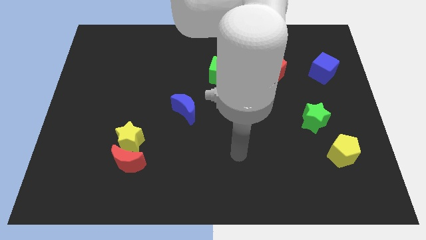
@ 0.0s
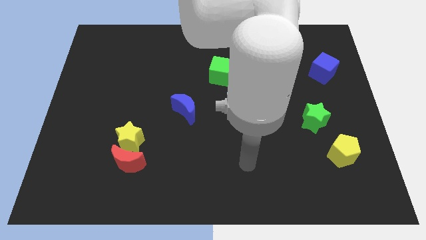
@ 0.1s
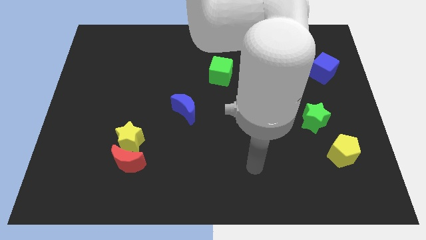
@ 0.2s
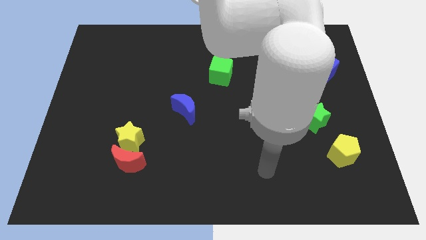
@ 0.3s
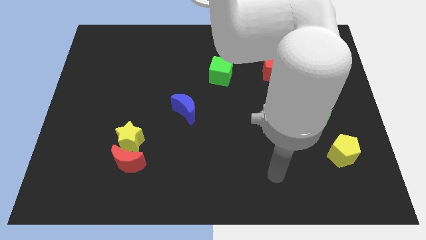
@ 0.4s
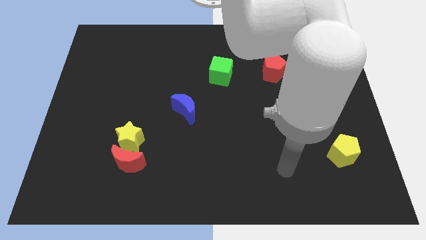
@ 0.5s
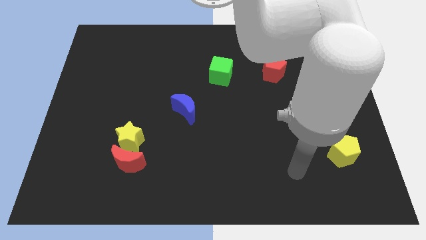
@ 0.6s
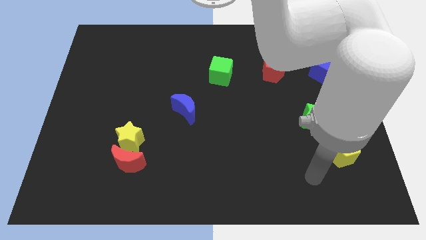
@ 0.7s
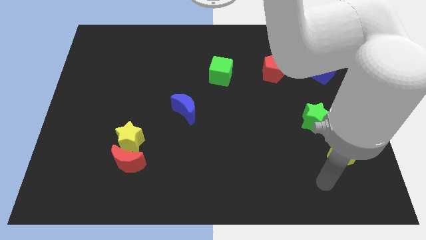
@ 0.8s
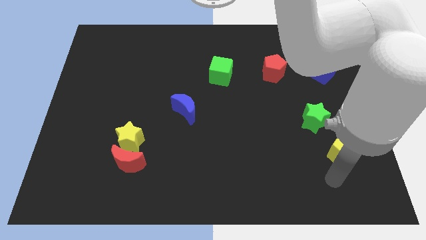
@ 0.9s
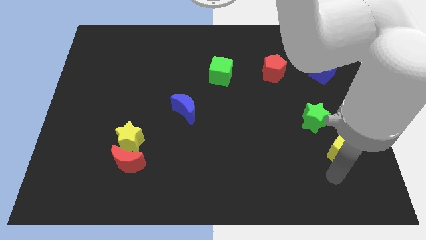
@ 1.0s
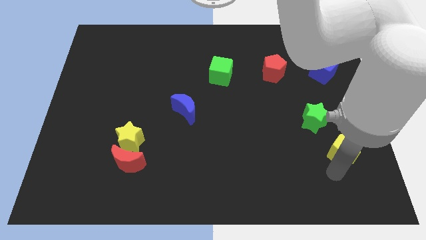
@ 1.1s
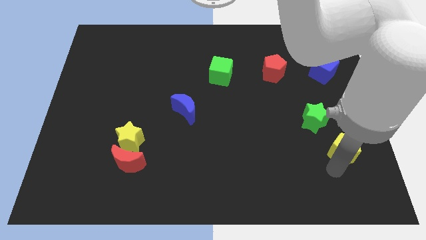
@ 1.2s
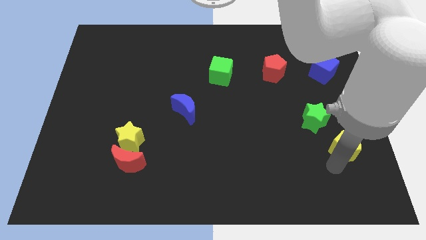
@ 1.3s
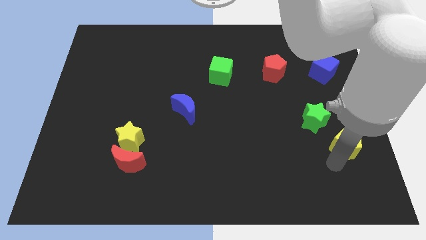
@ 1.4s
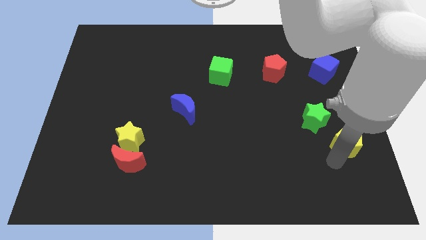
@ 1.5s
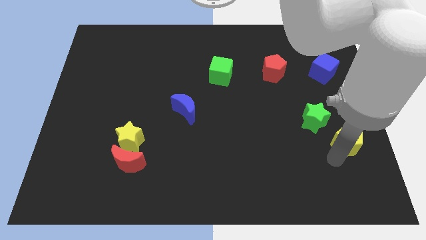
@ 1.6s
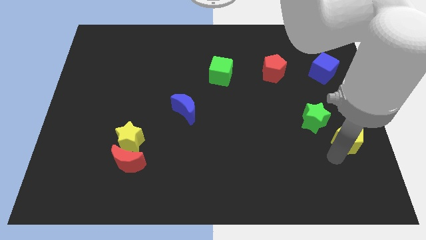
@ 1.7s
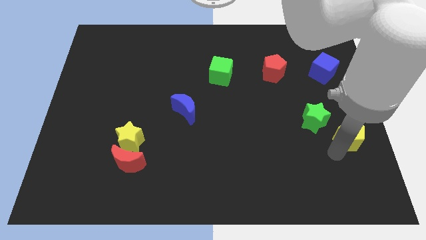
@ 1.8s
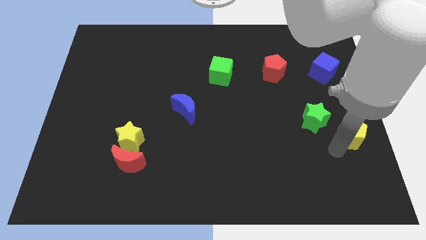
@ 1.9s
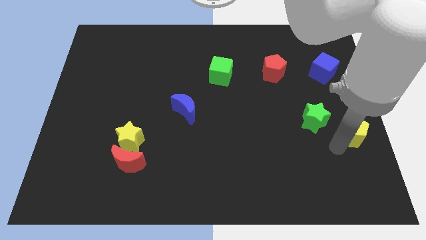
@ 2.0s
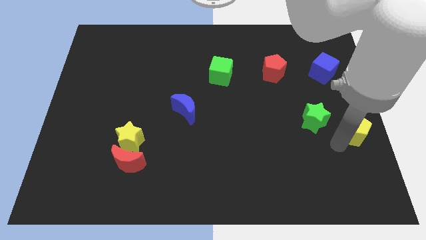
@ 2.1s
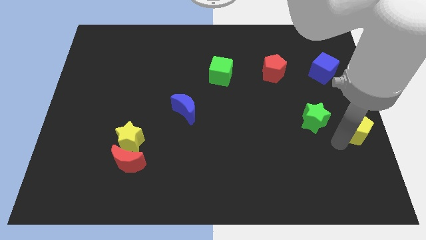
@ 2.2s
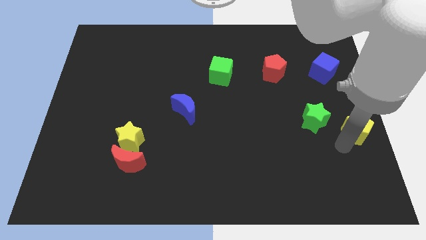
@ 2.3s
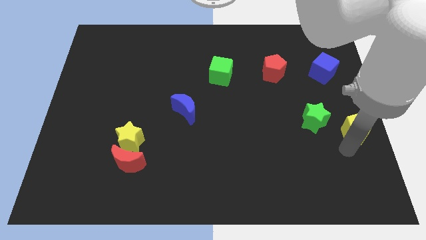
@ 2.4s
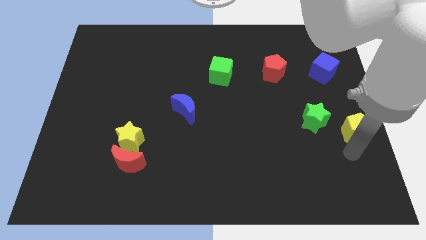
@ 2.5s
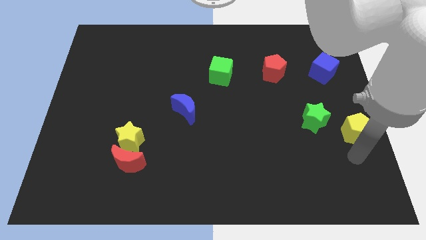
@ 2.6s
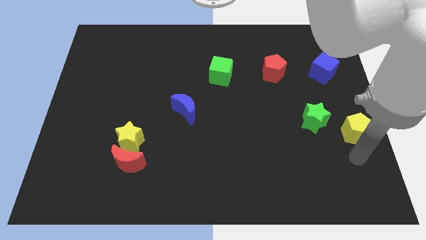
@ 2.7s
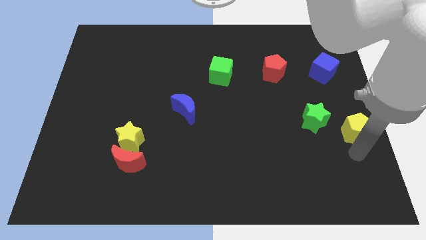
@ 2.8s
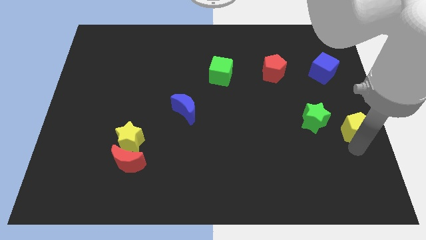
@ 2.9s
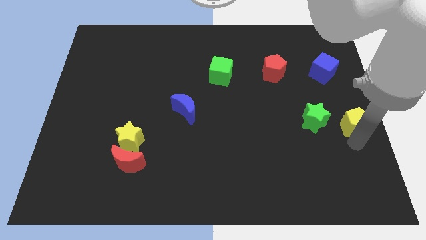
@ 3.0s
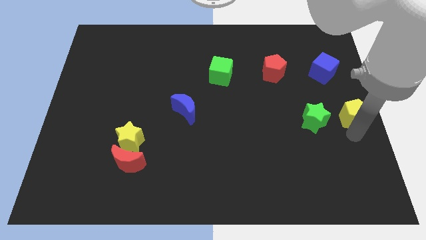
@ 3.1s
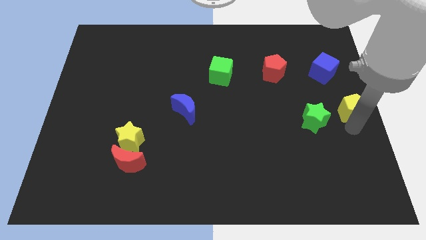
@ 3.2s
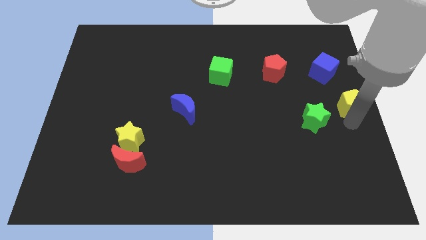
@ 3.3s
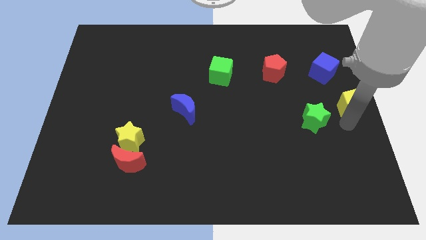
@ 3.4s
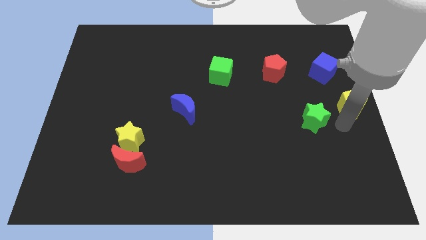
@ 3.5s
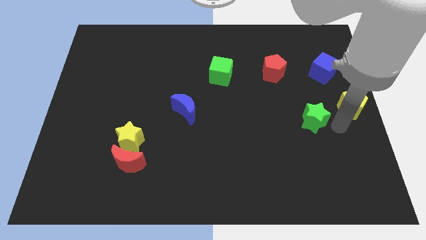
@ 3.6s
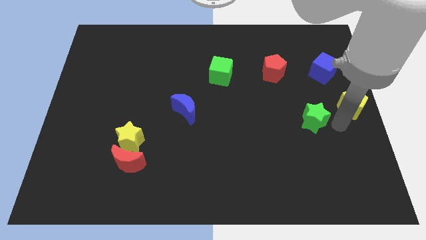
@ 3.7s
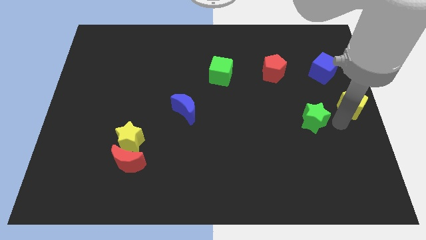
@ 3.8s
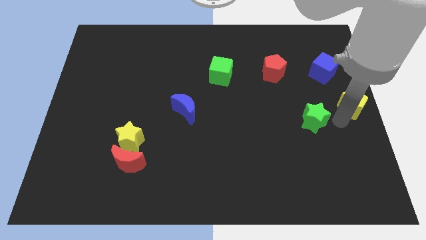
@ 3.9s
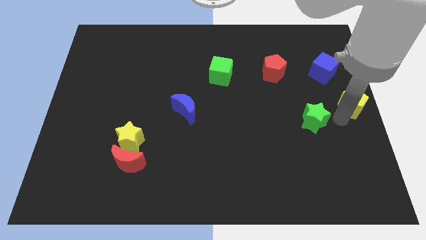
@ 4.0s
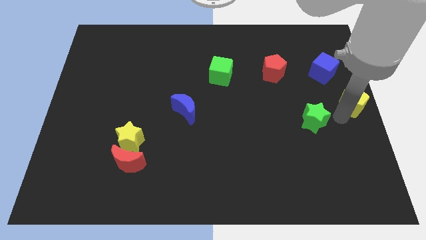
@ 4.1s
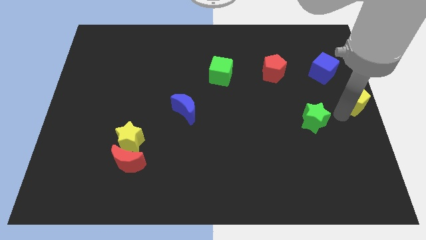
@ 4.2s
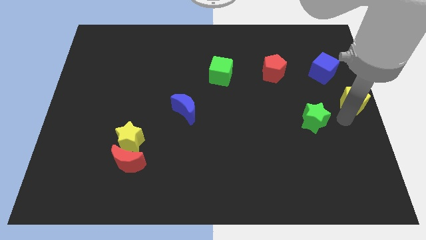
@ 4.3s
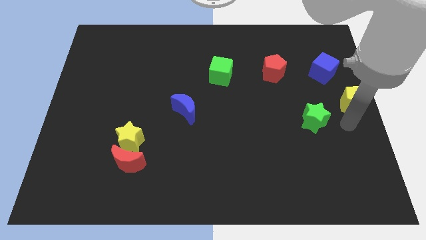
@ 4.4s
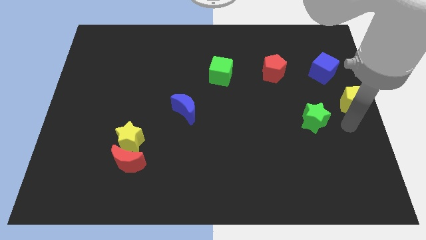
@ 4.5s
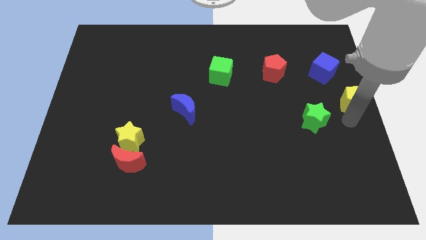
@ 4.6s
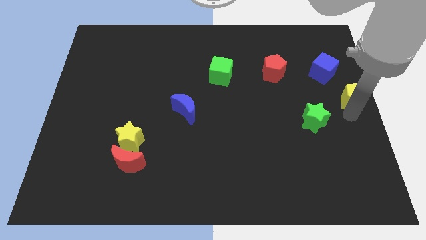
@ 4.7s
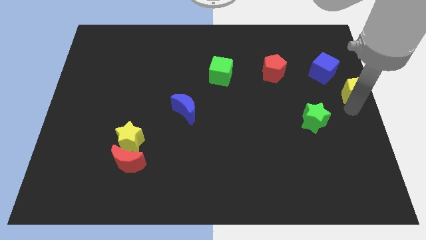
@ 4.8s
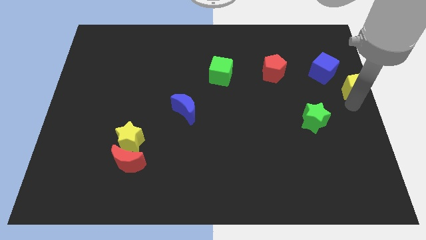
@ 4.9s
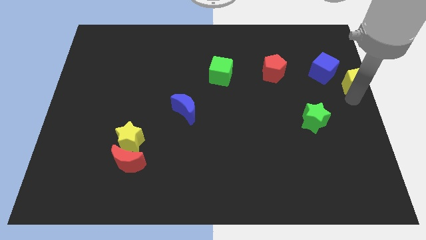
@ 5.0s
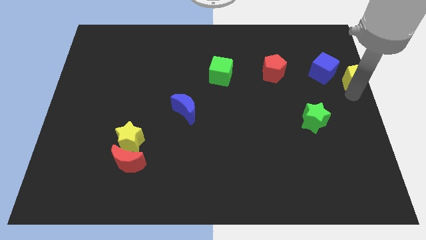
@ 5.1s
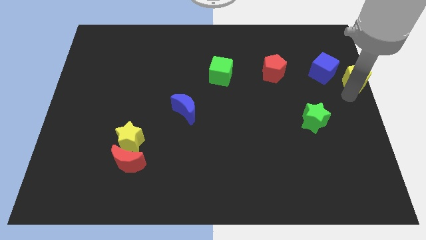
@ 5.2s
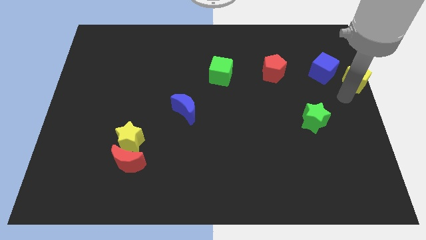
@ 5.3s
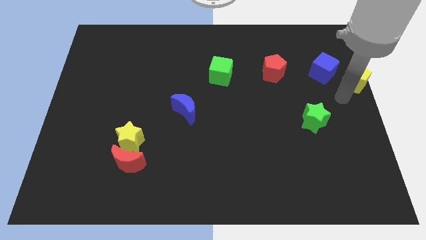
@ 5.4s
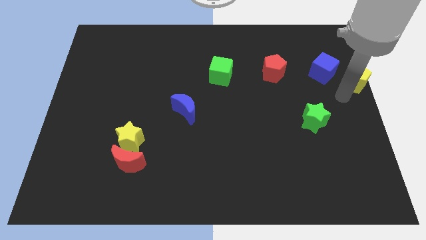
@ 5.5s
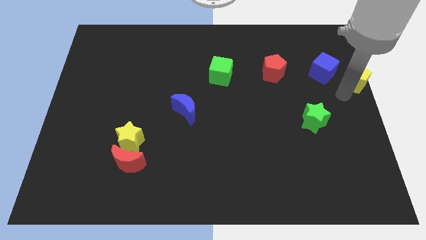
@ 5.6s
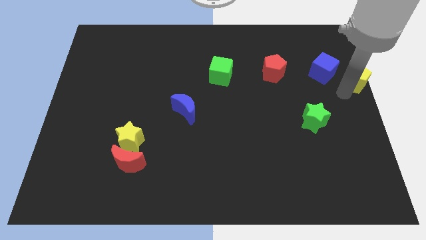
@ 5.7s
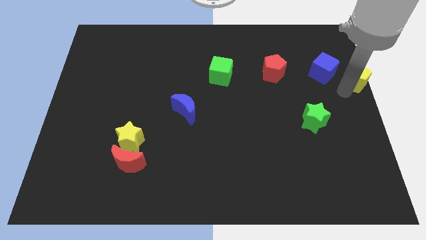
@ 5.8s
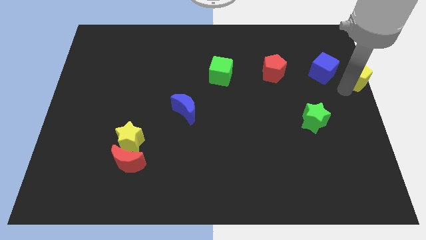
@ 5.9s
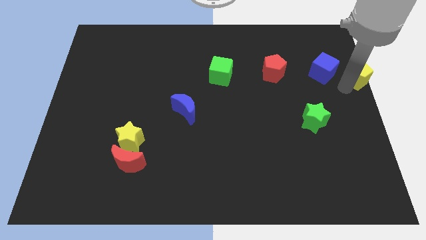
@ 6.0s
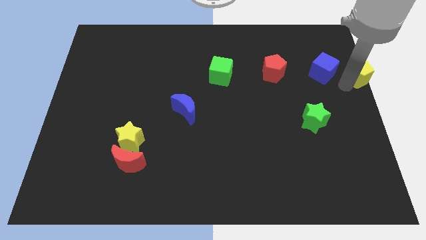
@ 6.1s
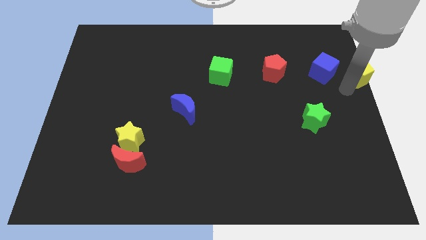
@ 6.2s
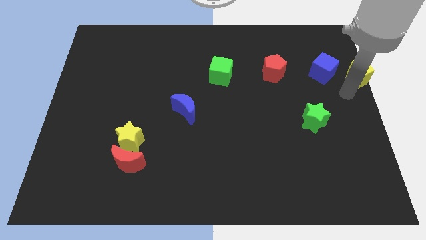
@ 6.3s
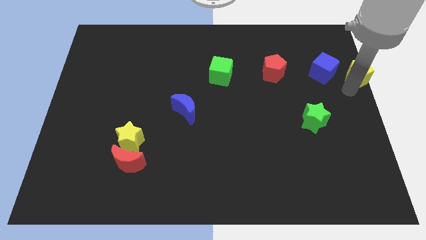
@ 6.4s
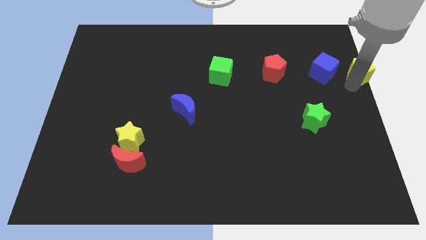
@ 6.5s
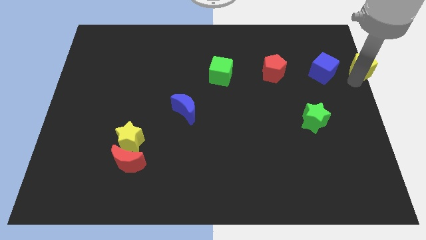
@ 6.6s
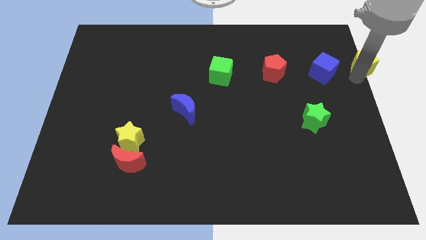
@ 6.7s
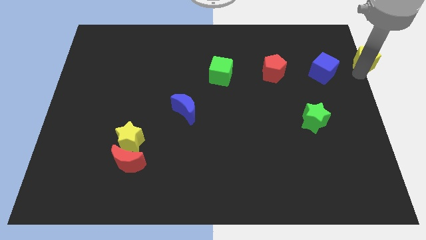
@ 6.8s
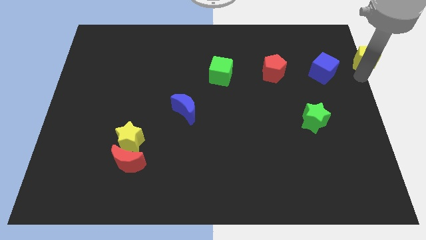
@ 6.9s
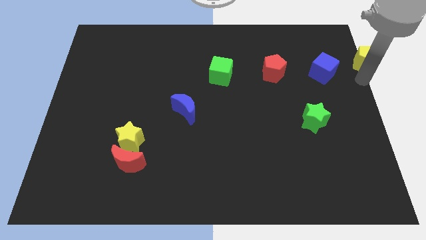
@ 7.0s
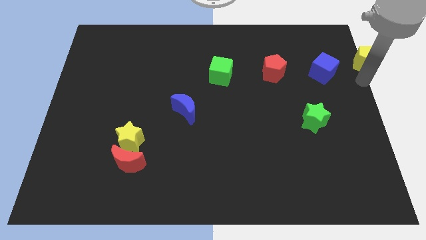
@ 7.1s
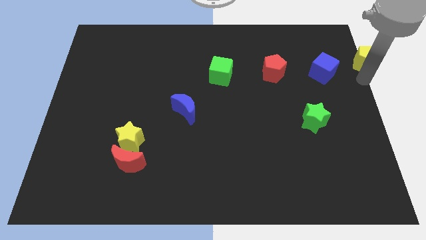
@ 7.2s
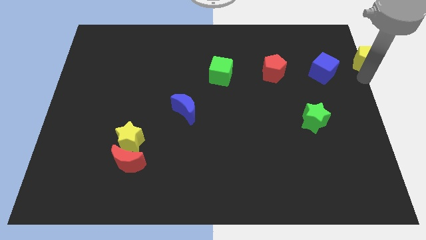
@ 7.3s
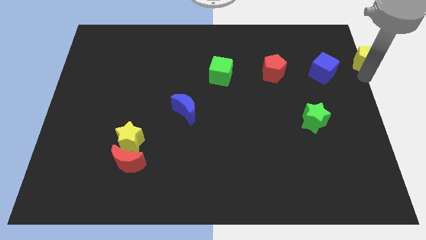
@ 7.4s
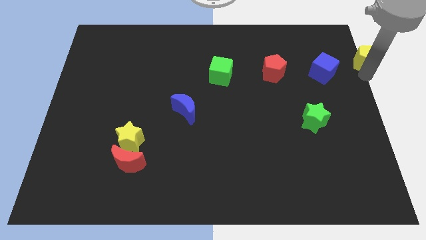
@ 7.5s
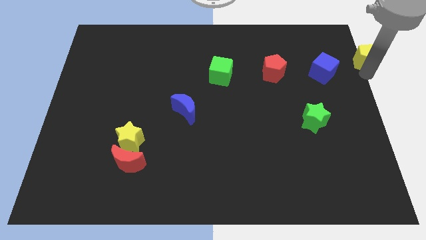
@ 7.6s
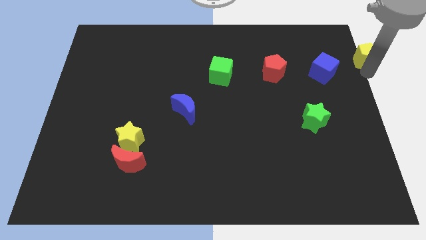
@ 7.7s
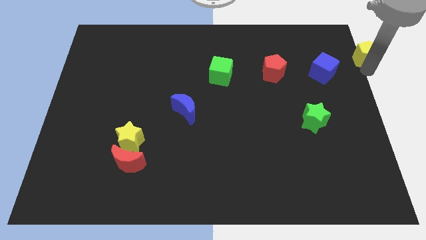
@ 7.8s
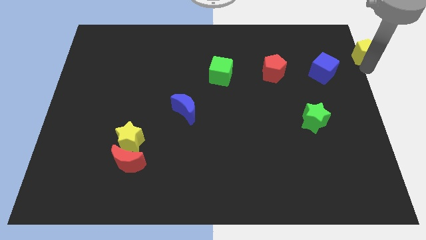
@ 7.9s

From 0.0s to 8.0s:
put the yellow pentagon to the top right
